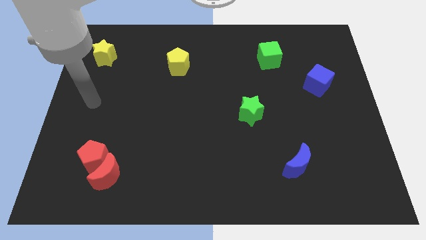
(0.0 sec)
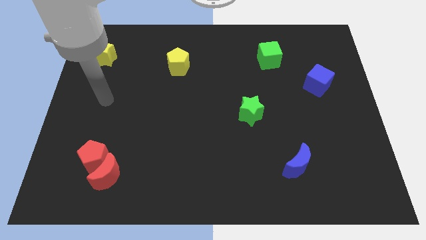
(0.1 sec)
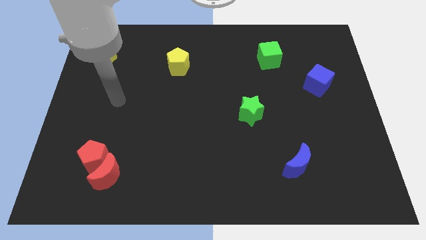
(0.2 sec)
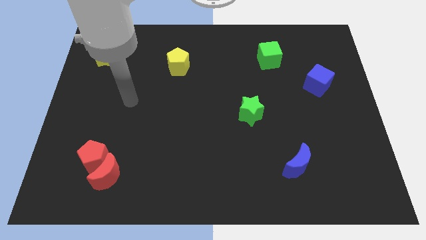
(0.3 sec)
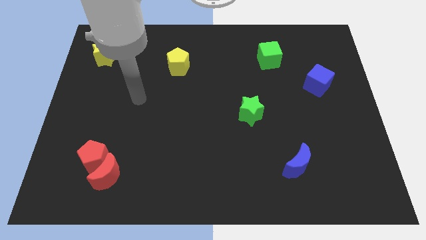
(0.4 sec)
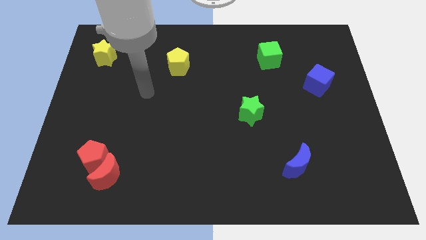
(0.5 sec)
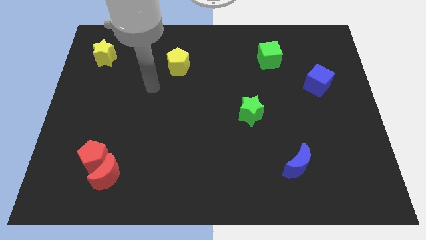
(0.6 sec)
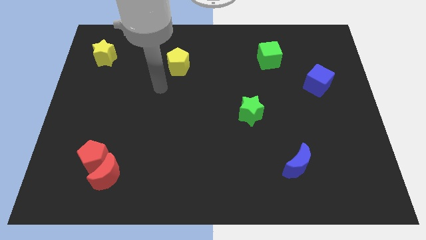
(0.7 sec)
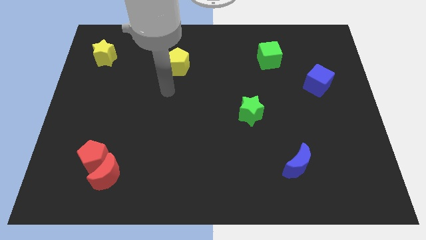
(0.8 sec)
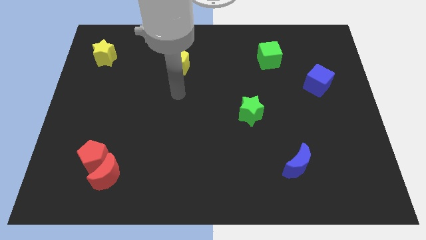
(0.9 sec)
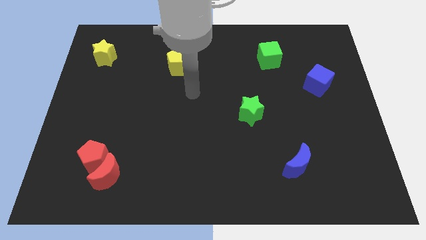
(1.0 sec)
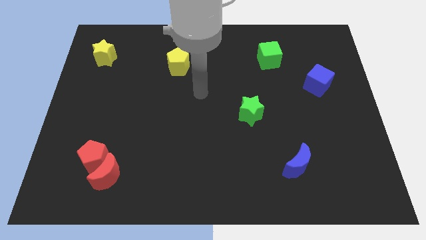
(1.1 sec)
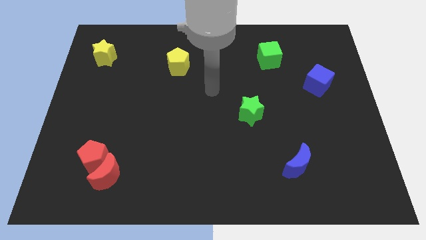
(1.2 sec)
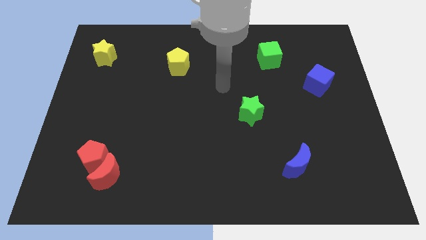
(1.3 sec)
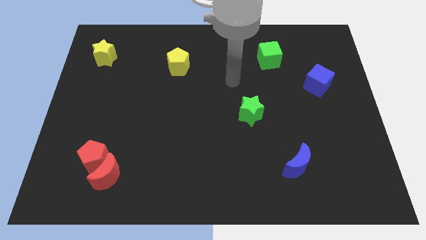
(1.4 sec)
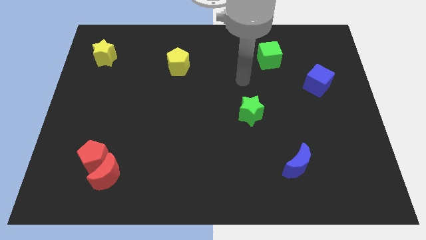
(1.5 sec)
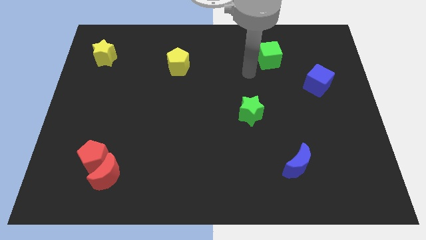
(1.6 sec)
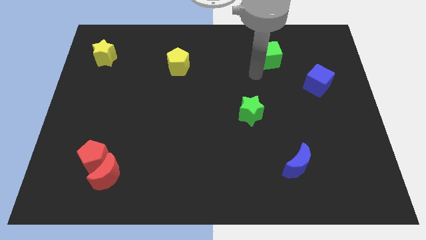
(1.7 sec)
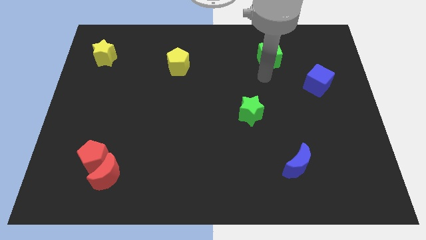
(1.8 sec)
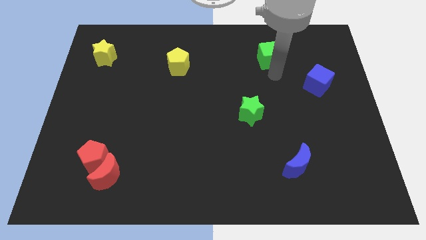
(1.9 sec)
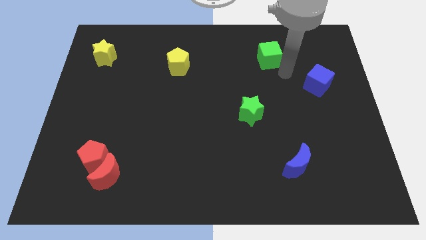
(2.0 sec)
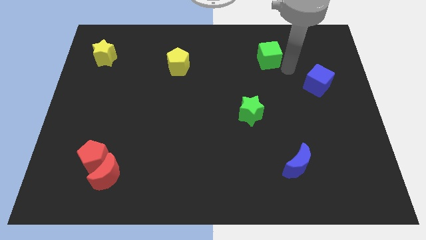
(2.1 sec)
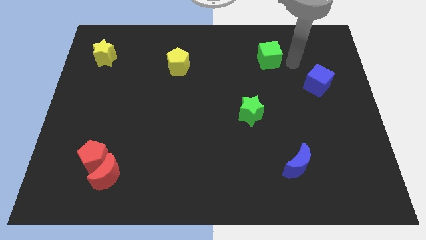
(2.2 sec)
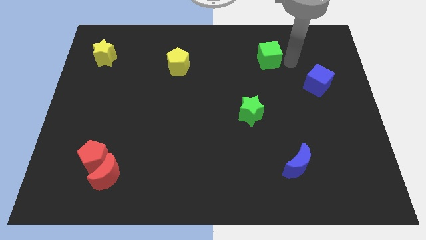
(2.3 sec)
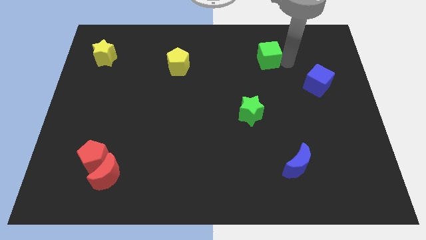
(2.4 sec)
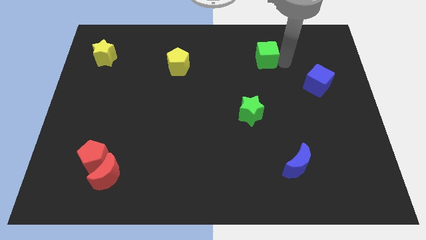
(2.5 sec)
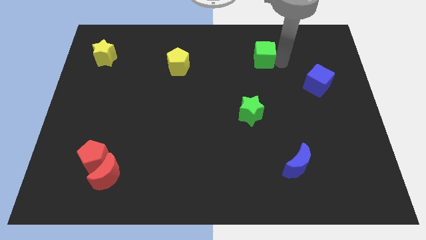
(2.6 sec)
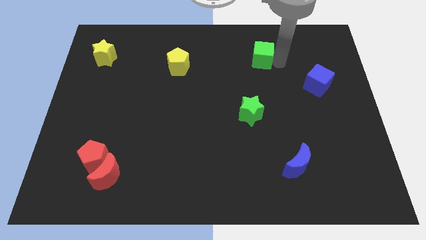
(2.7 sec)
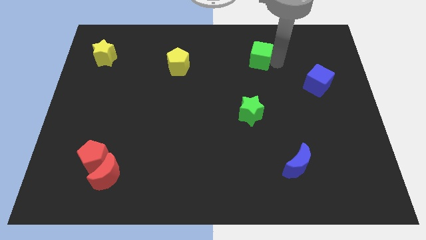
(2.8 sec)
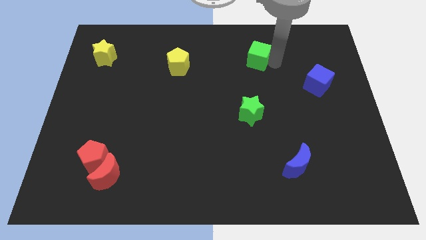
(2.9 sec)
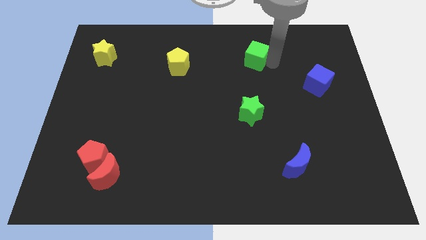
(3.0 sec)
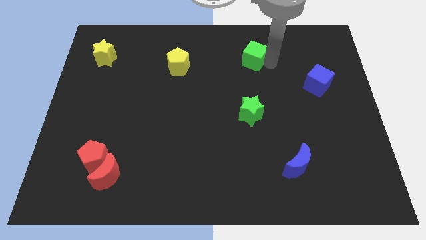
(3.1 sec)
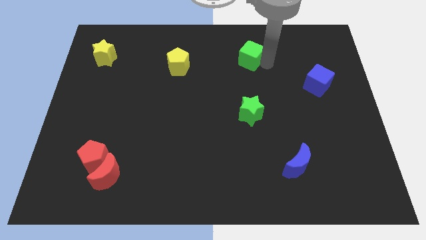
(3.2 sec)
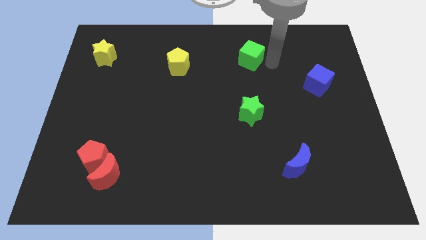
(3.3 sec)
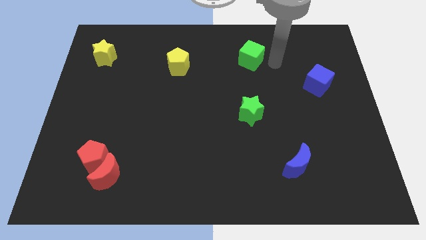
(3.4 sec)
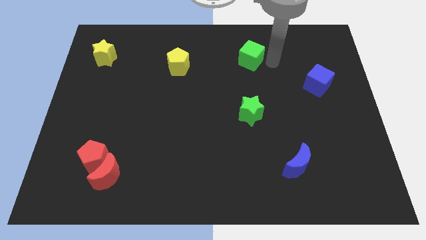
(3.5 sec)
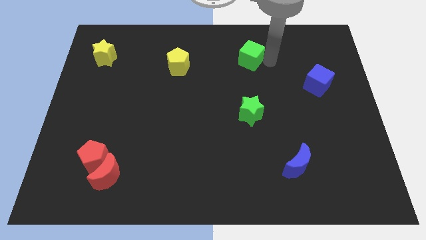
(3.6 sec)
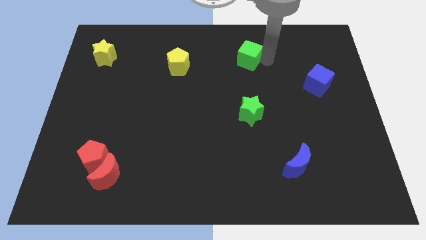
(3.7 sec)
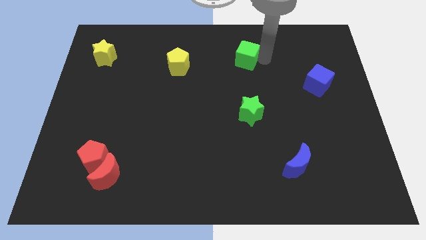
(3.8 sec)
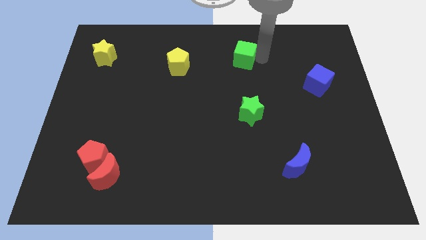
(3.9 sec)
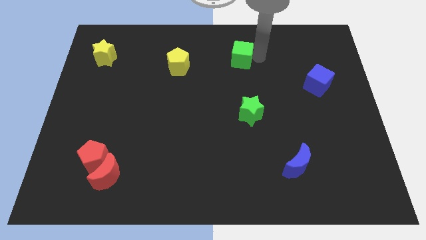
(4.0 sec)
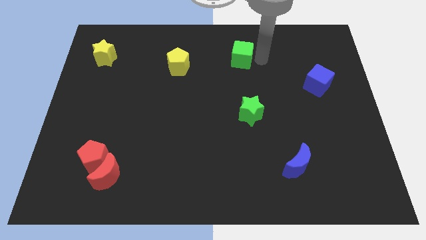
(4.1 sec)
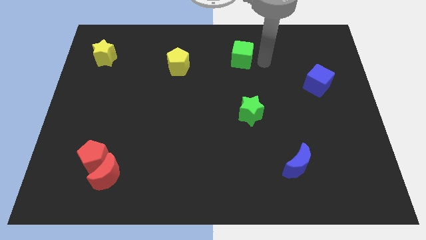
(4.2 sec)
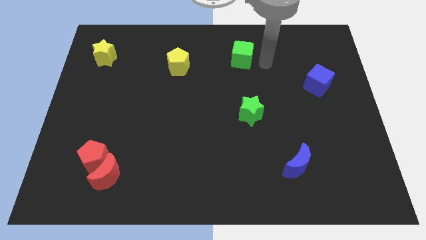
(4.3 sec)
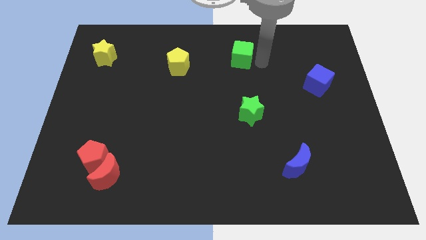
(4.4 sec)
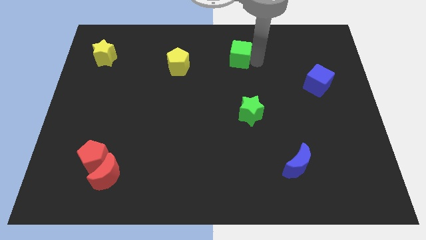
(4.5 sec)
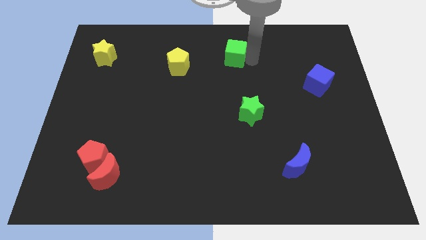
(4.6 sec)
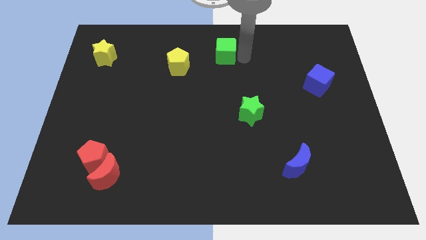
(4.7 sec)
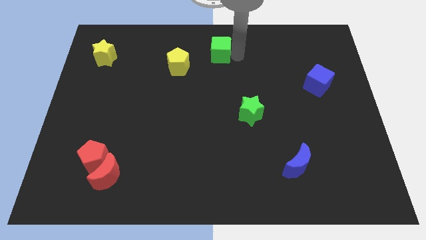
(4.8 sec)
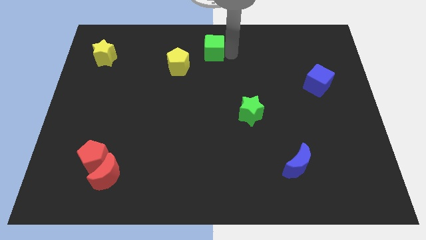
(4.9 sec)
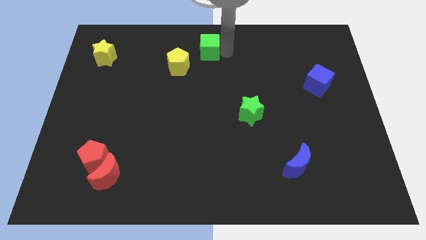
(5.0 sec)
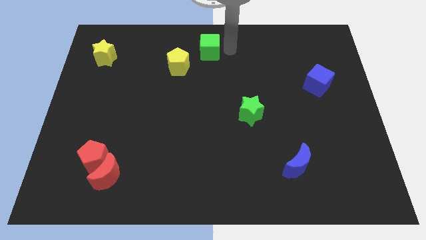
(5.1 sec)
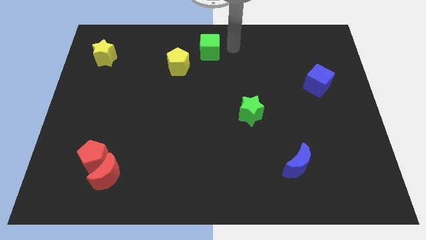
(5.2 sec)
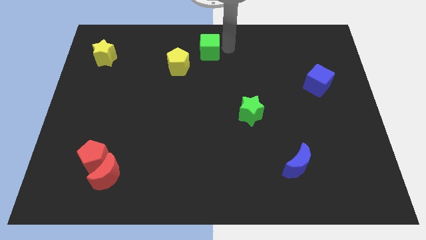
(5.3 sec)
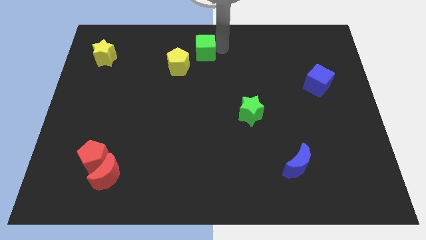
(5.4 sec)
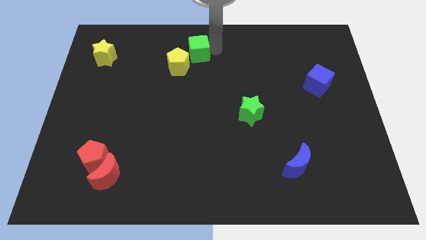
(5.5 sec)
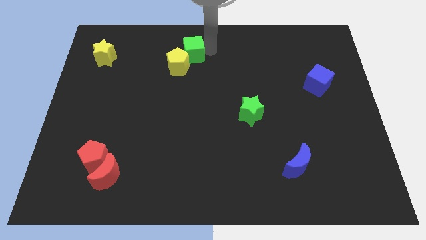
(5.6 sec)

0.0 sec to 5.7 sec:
push the green cube left

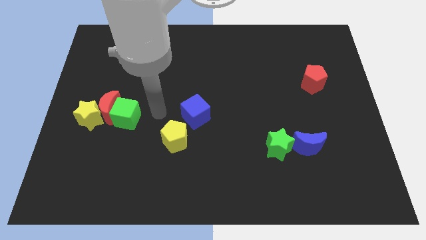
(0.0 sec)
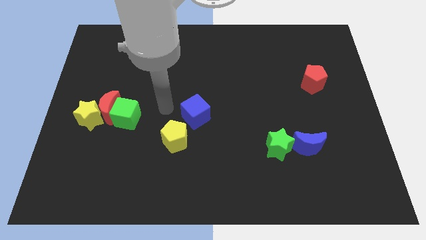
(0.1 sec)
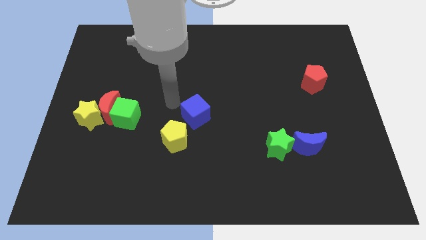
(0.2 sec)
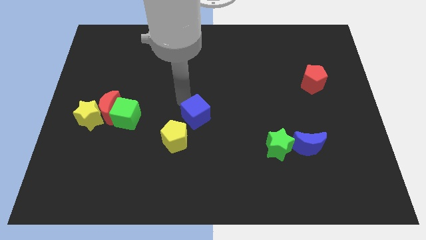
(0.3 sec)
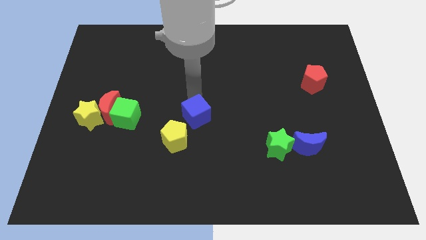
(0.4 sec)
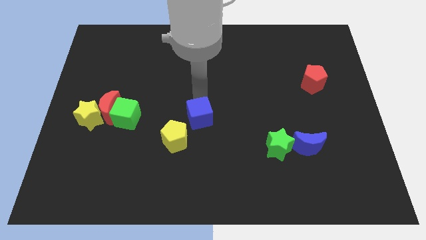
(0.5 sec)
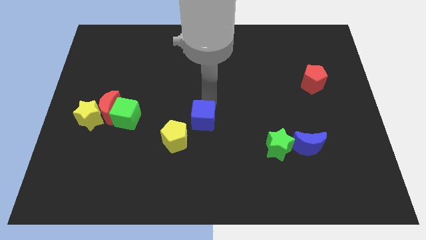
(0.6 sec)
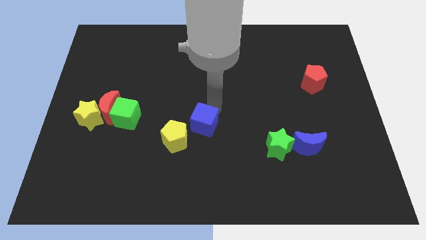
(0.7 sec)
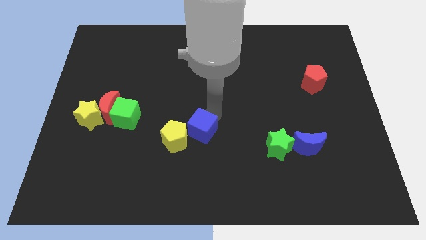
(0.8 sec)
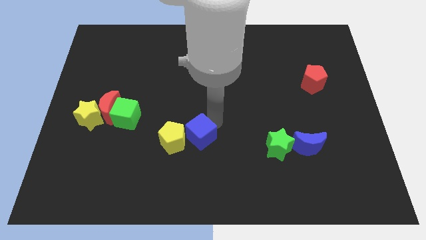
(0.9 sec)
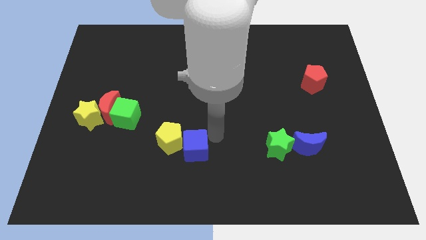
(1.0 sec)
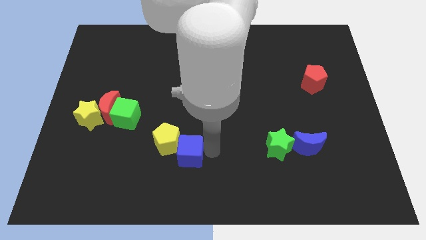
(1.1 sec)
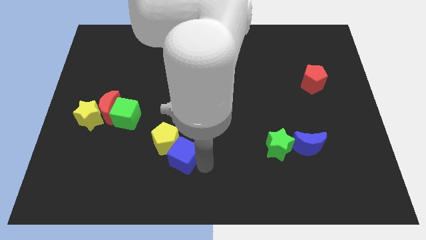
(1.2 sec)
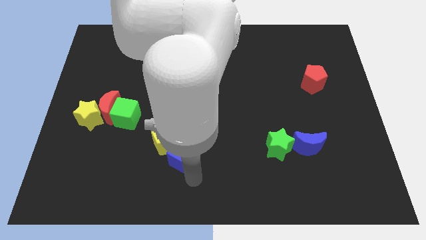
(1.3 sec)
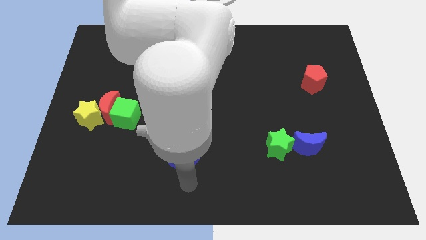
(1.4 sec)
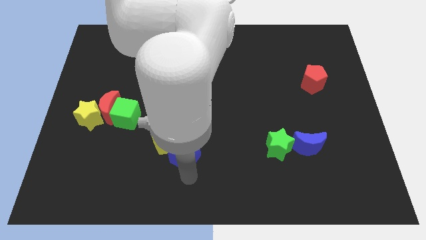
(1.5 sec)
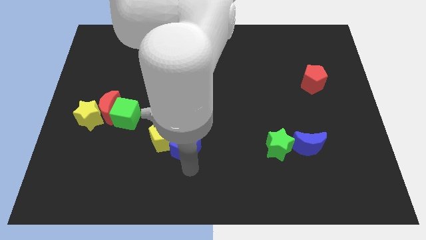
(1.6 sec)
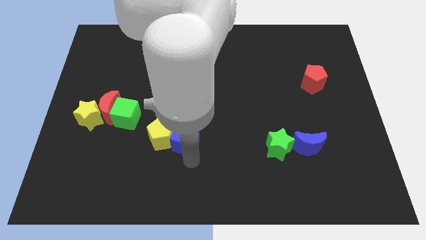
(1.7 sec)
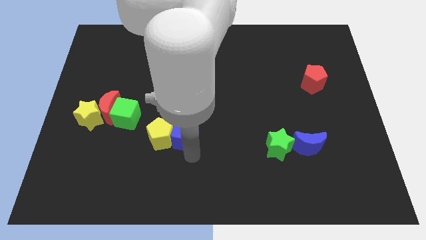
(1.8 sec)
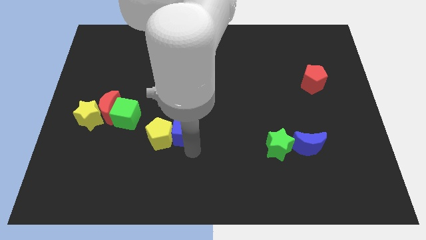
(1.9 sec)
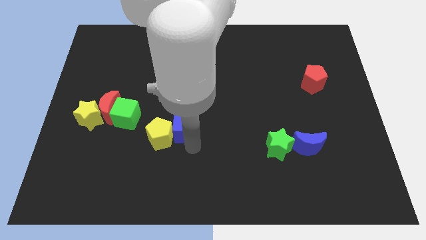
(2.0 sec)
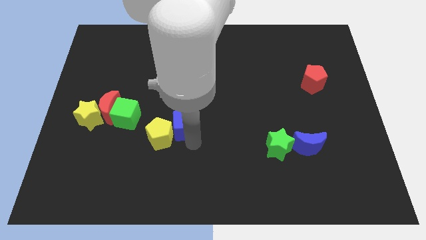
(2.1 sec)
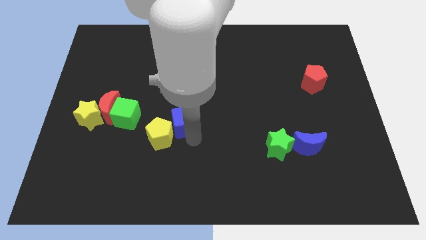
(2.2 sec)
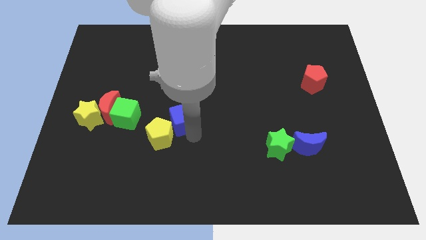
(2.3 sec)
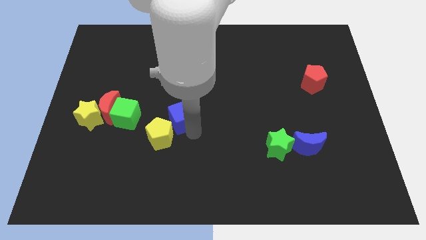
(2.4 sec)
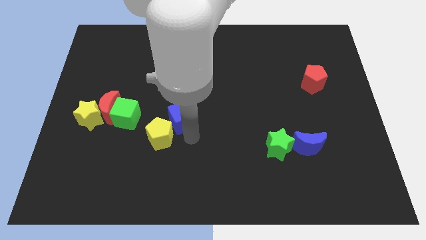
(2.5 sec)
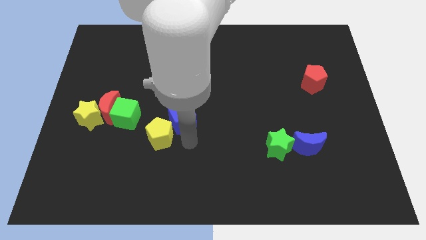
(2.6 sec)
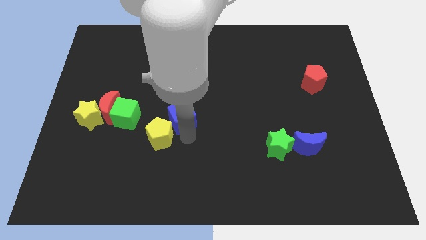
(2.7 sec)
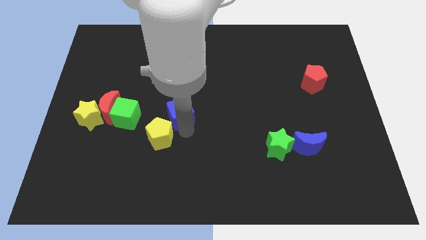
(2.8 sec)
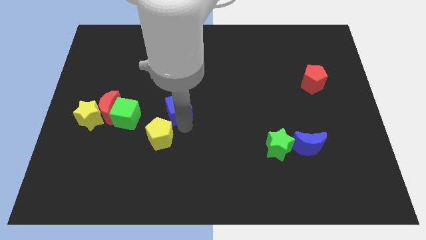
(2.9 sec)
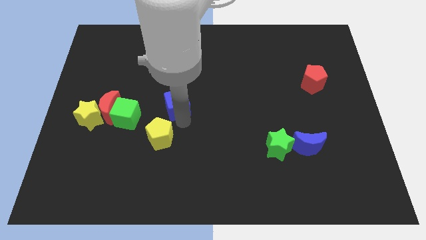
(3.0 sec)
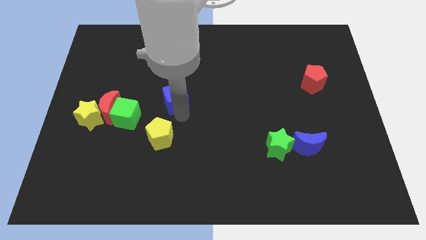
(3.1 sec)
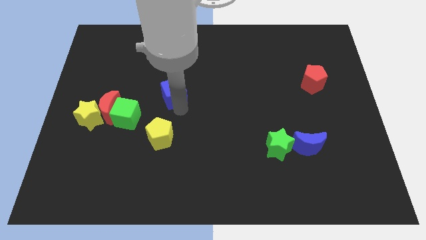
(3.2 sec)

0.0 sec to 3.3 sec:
move the blue cube slightly up and to the left
